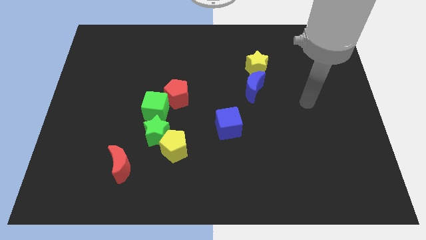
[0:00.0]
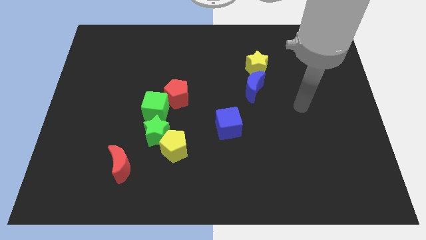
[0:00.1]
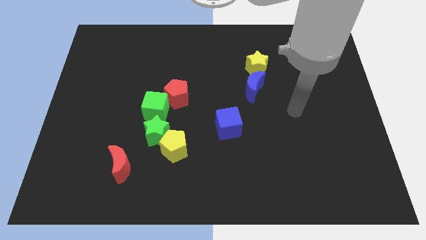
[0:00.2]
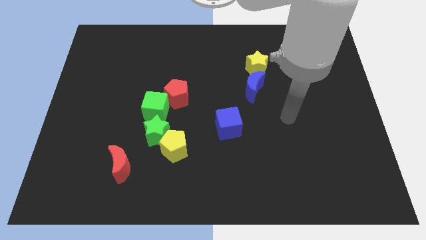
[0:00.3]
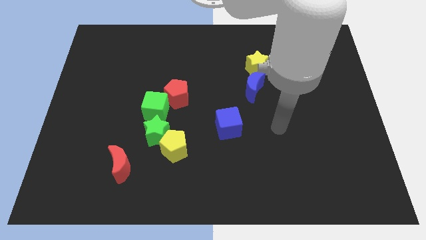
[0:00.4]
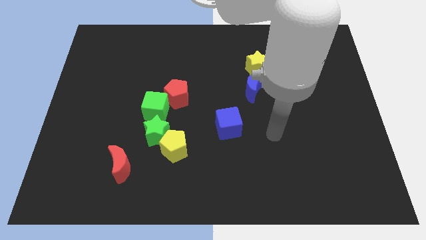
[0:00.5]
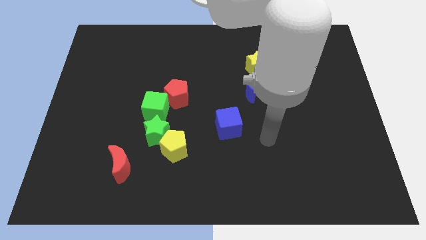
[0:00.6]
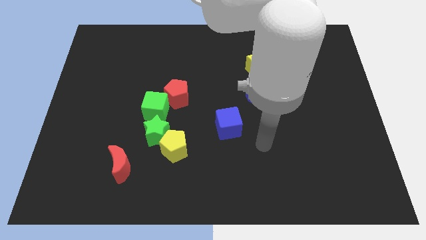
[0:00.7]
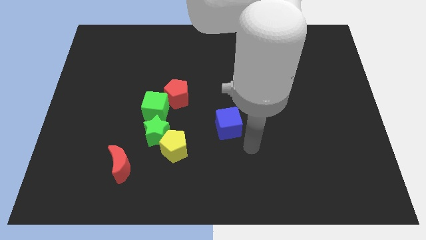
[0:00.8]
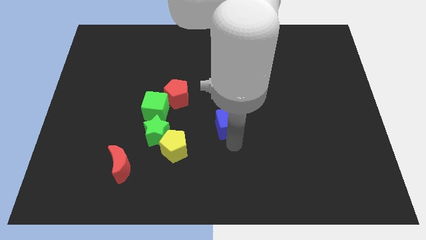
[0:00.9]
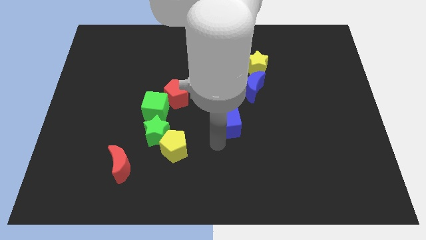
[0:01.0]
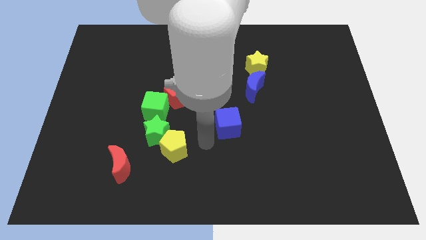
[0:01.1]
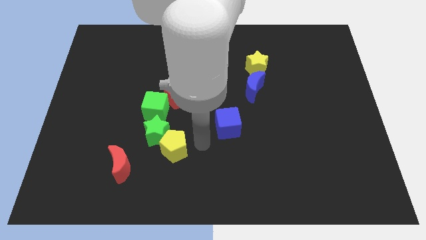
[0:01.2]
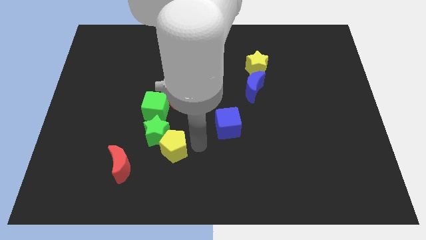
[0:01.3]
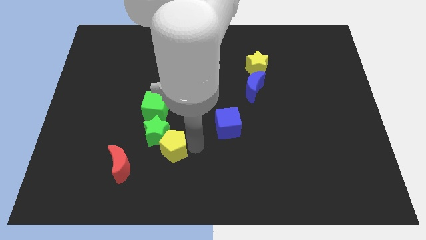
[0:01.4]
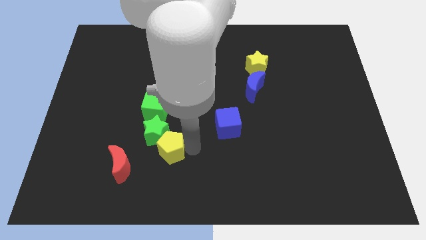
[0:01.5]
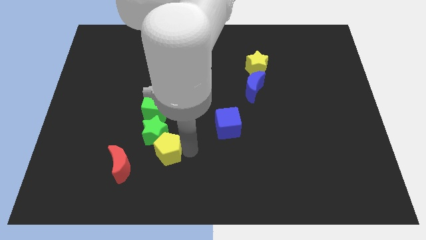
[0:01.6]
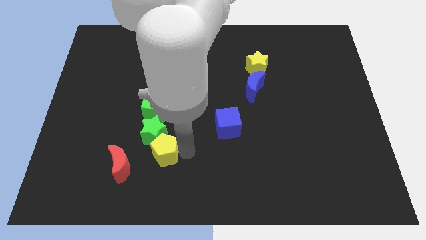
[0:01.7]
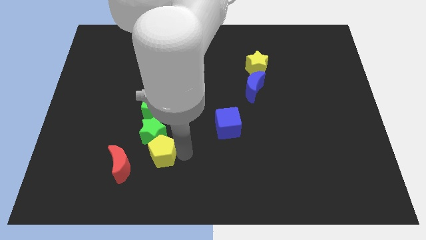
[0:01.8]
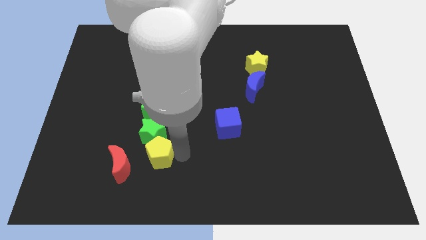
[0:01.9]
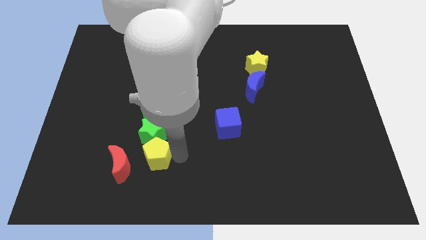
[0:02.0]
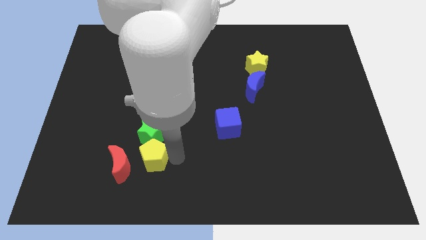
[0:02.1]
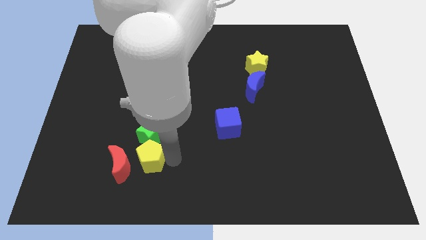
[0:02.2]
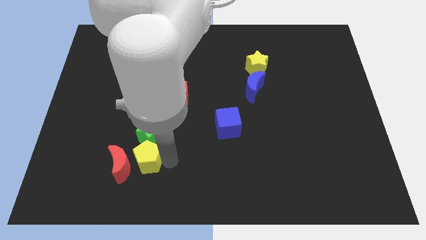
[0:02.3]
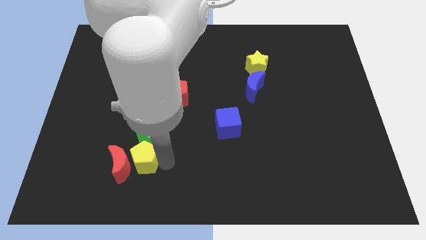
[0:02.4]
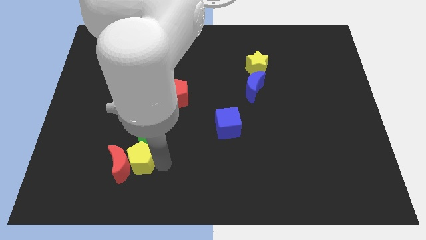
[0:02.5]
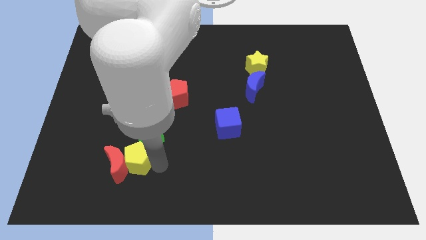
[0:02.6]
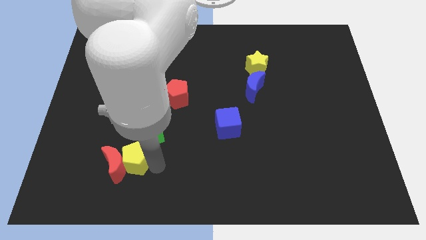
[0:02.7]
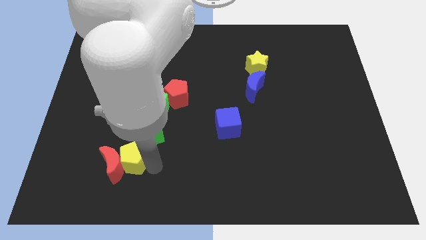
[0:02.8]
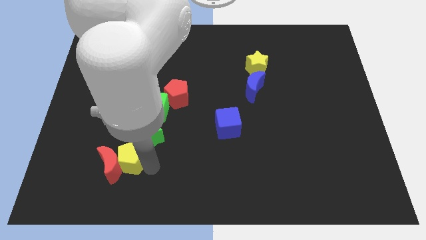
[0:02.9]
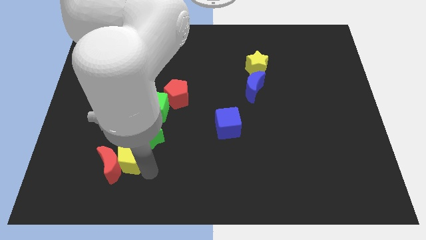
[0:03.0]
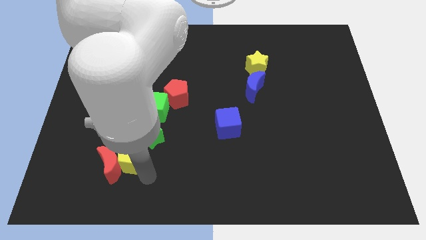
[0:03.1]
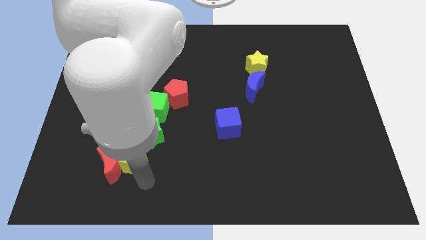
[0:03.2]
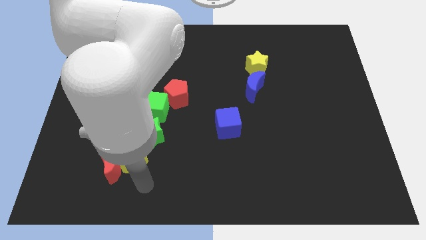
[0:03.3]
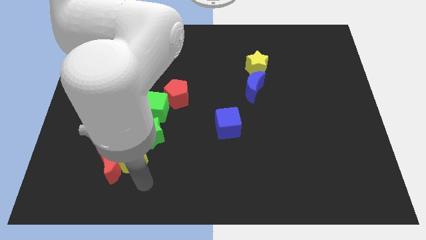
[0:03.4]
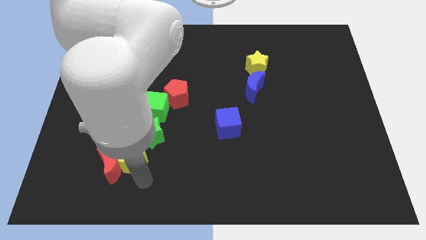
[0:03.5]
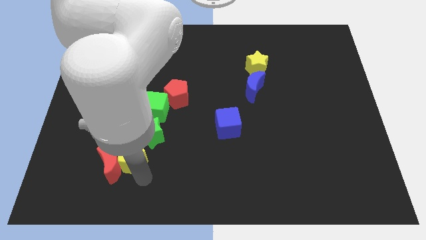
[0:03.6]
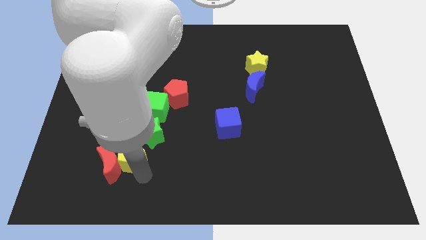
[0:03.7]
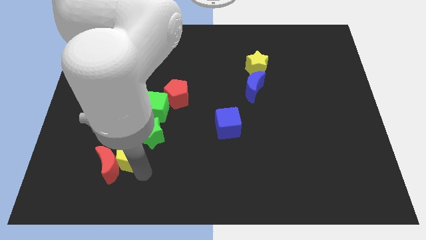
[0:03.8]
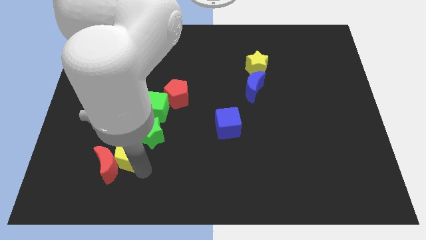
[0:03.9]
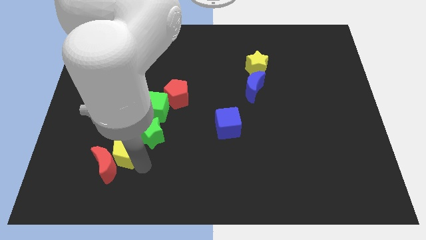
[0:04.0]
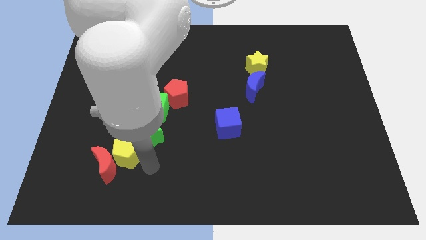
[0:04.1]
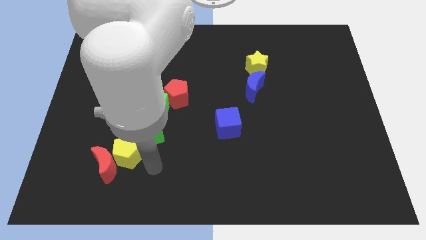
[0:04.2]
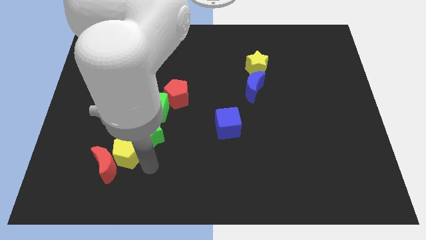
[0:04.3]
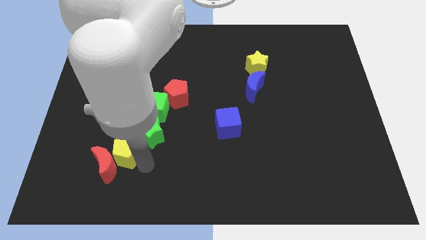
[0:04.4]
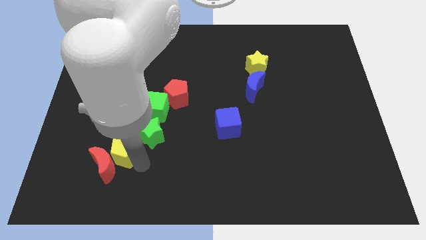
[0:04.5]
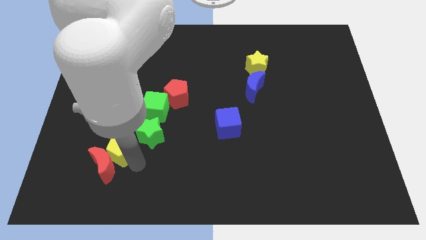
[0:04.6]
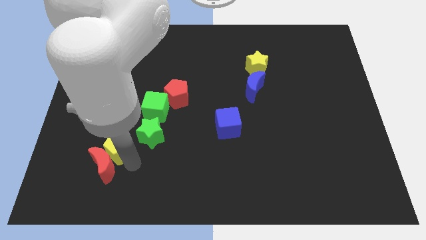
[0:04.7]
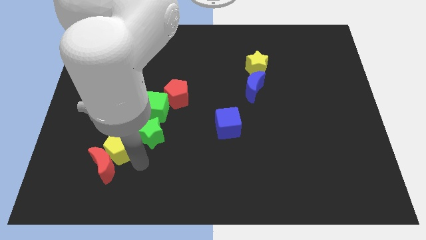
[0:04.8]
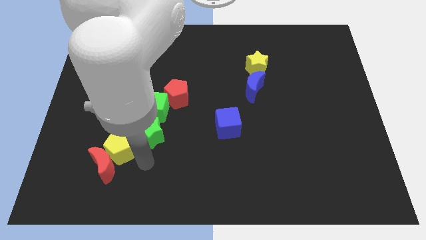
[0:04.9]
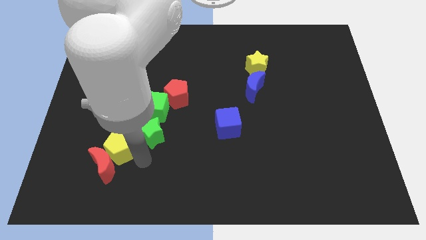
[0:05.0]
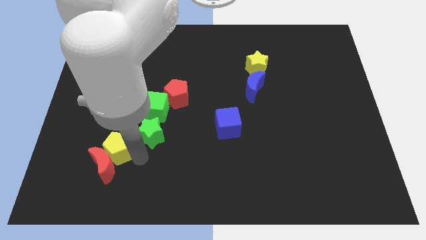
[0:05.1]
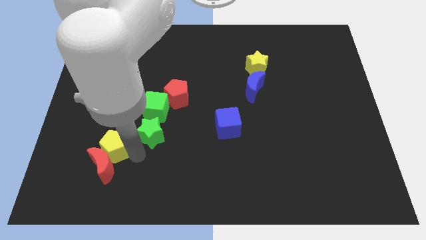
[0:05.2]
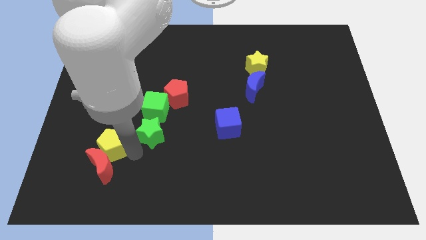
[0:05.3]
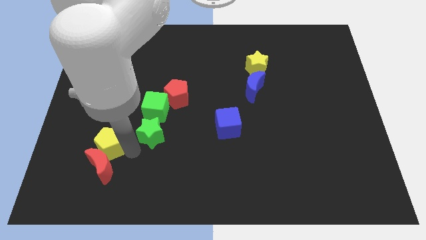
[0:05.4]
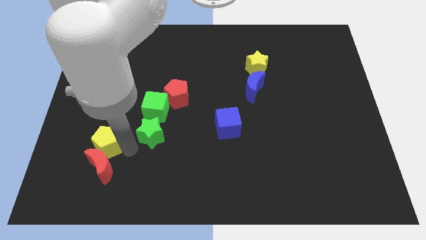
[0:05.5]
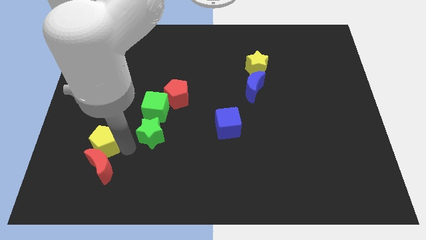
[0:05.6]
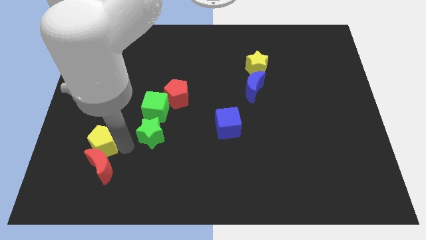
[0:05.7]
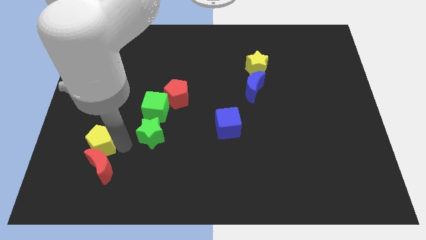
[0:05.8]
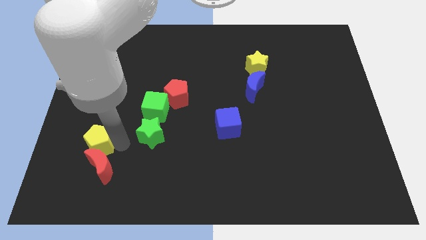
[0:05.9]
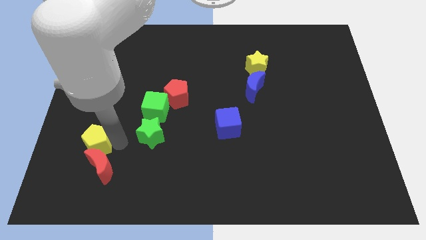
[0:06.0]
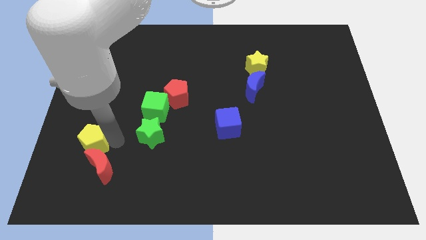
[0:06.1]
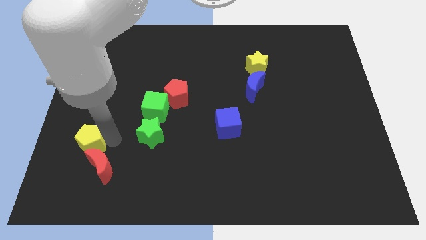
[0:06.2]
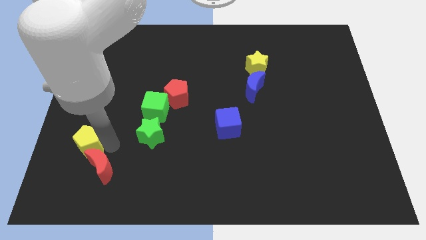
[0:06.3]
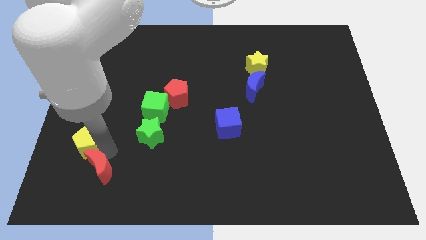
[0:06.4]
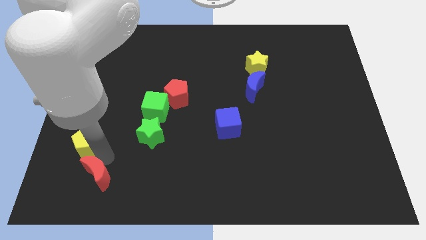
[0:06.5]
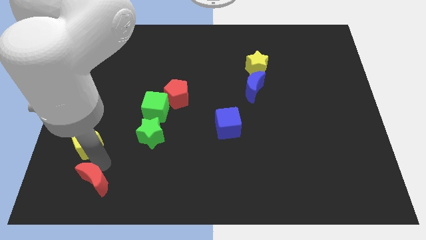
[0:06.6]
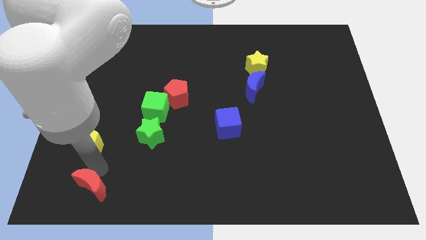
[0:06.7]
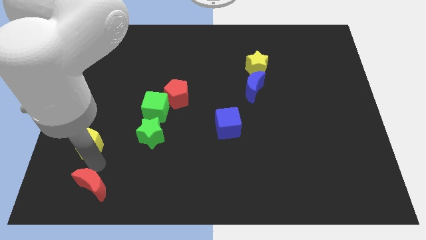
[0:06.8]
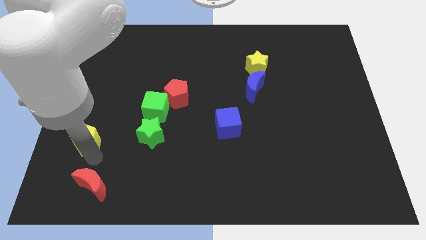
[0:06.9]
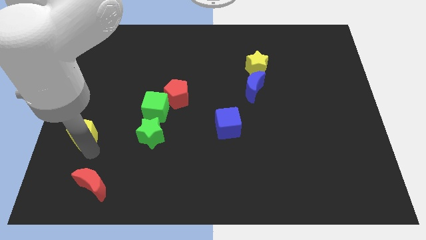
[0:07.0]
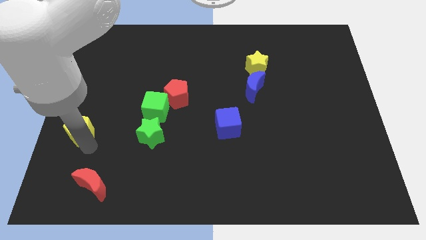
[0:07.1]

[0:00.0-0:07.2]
push the yellow pentagon to the left side of the board
